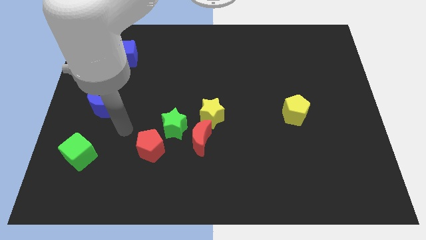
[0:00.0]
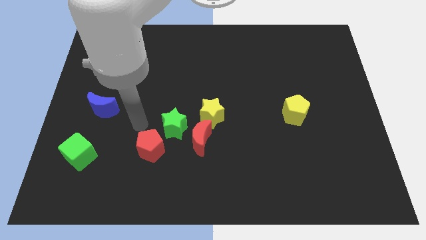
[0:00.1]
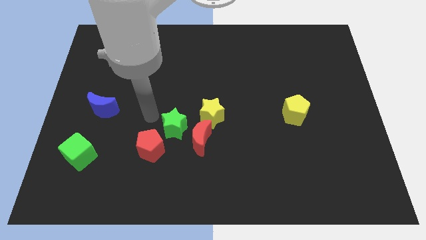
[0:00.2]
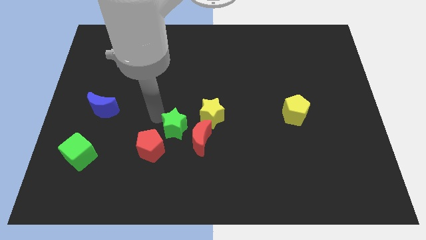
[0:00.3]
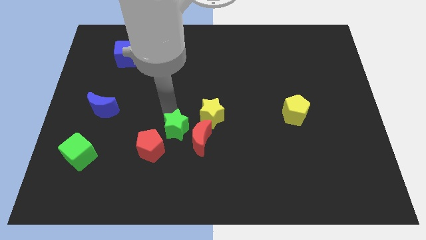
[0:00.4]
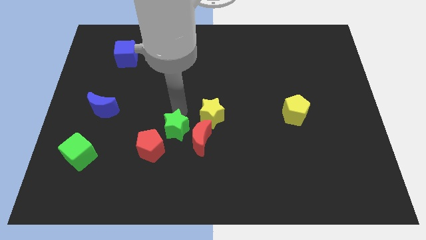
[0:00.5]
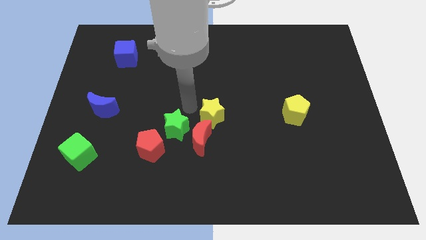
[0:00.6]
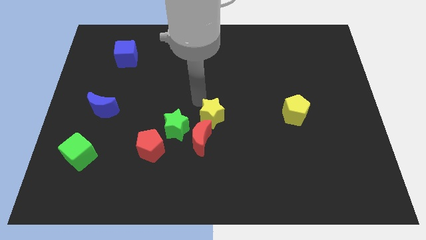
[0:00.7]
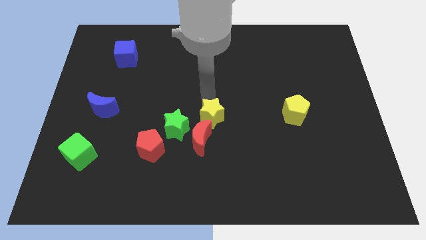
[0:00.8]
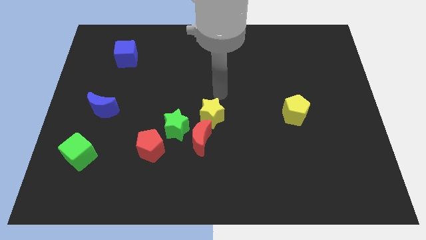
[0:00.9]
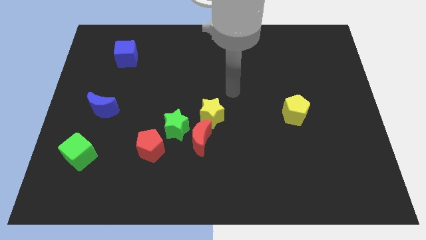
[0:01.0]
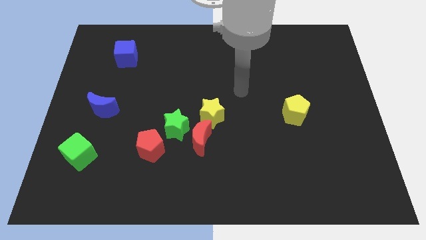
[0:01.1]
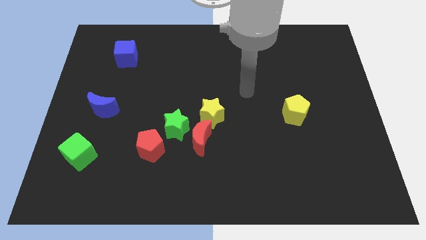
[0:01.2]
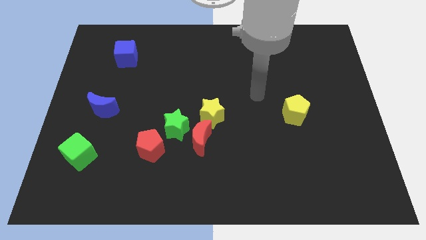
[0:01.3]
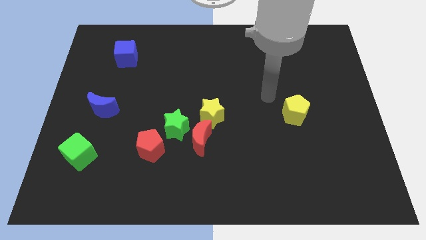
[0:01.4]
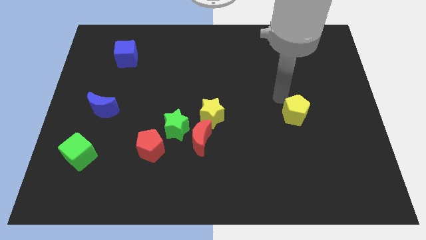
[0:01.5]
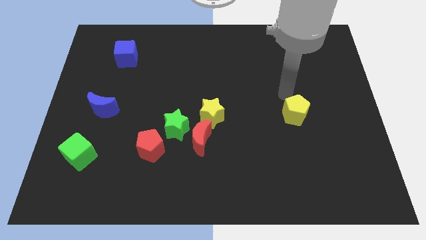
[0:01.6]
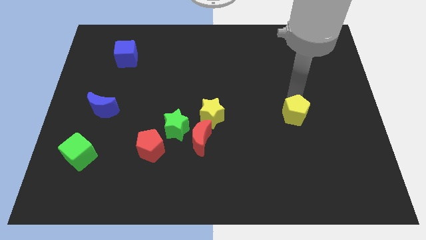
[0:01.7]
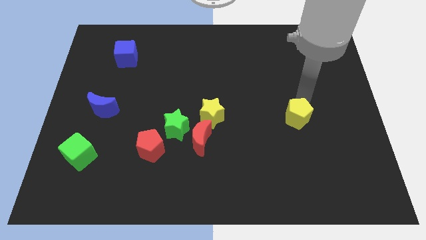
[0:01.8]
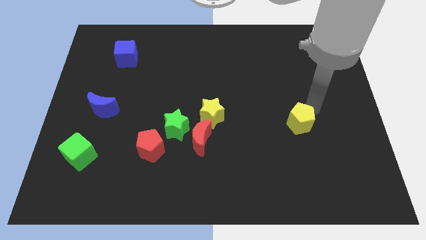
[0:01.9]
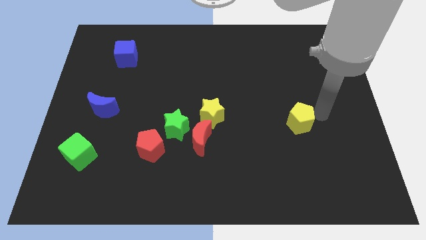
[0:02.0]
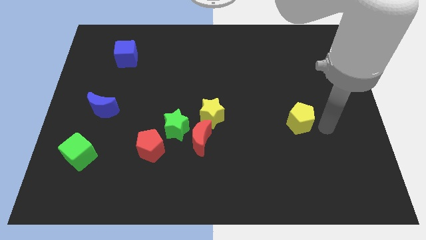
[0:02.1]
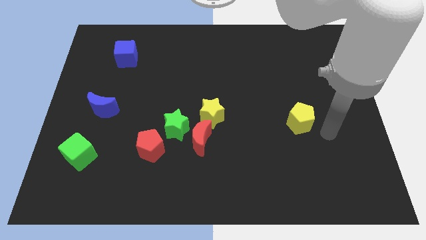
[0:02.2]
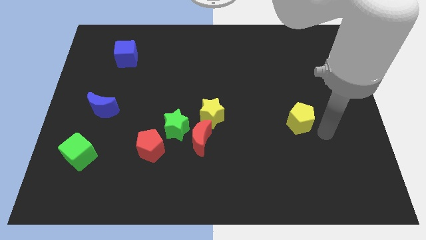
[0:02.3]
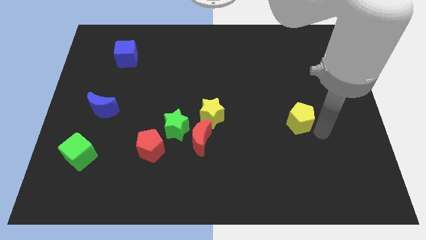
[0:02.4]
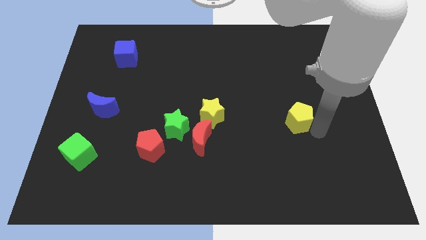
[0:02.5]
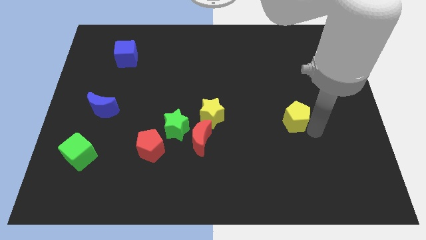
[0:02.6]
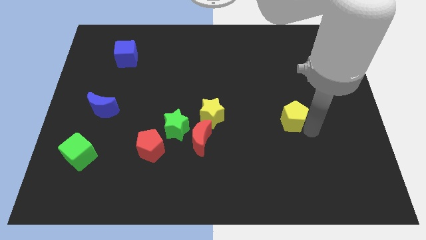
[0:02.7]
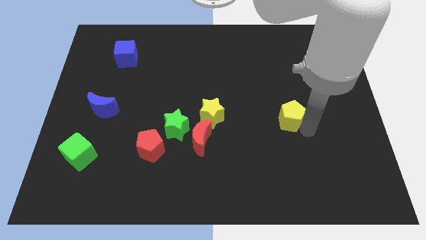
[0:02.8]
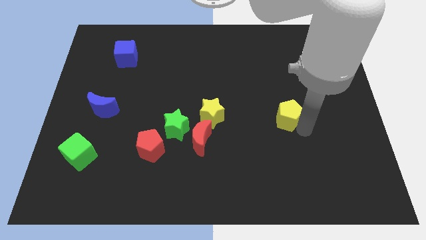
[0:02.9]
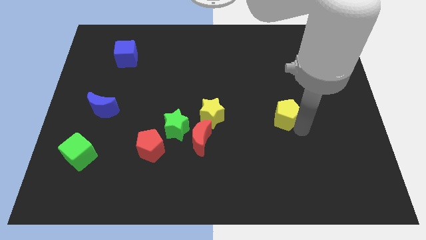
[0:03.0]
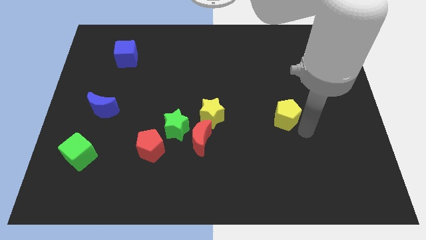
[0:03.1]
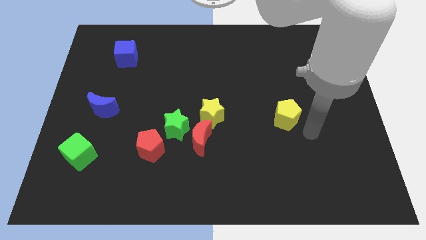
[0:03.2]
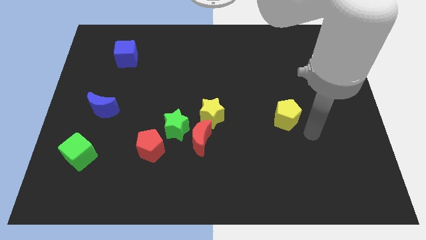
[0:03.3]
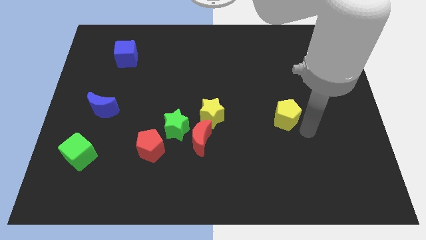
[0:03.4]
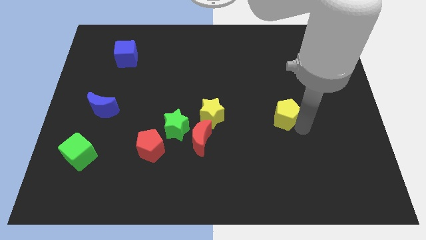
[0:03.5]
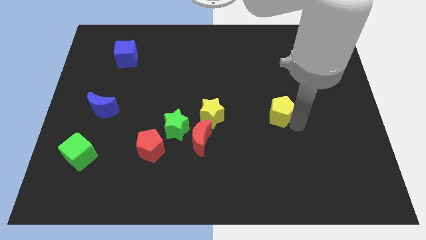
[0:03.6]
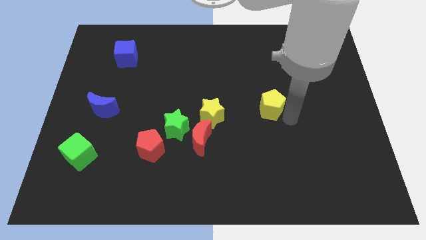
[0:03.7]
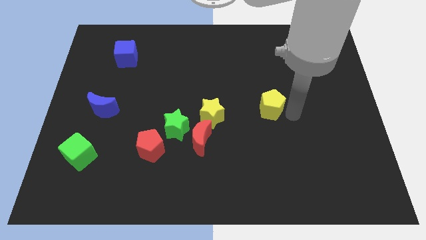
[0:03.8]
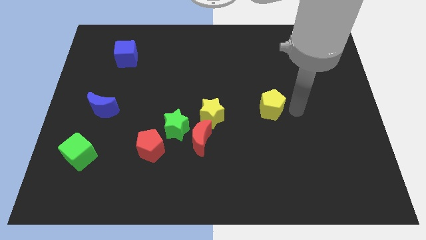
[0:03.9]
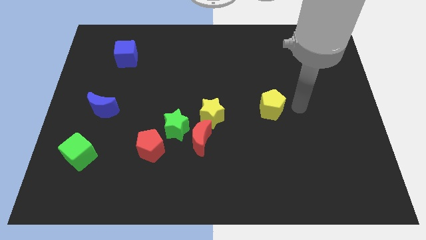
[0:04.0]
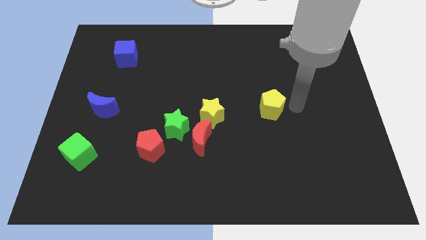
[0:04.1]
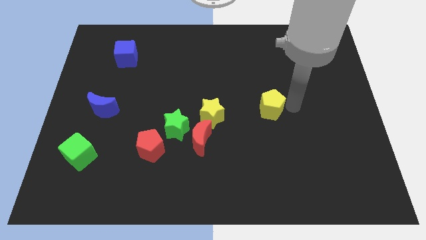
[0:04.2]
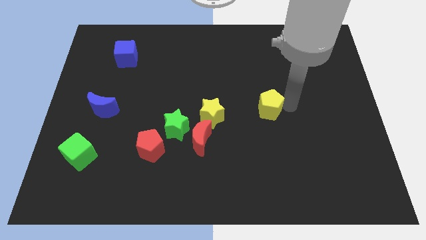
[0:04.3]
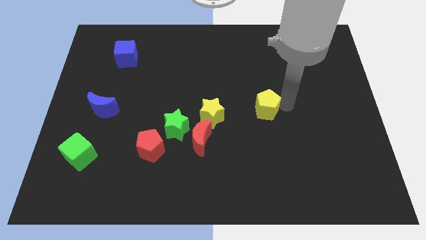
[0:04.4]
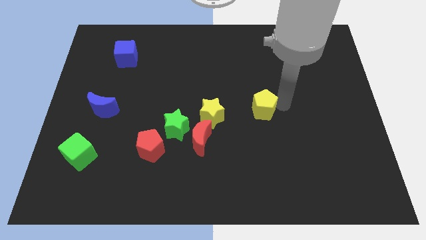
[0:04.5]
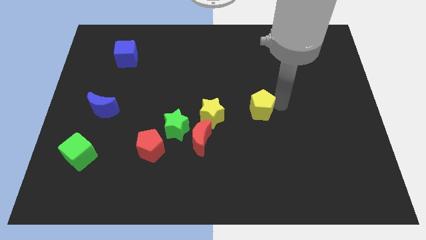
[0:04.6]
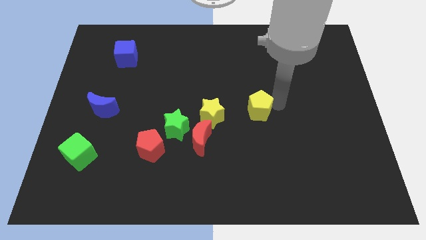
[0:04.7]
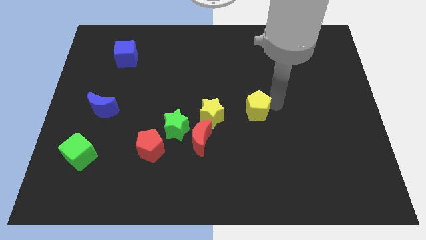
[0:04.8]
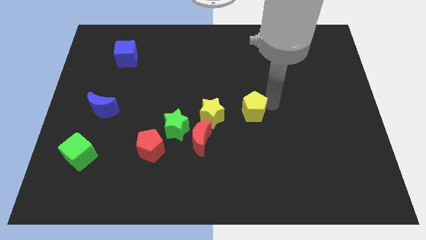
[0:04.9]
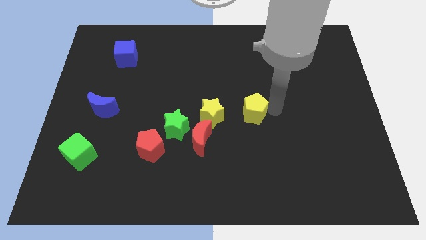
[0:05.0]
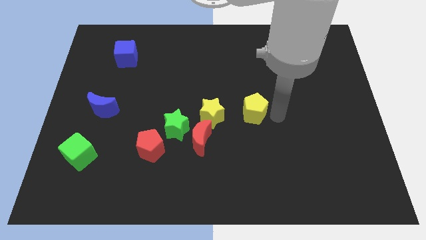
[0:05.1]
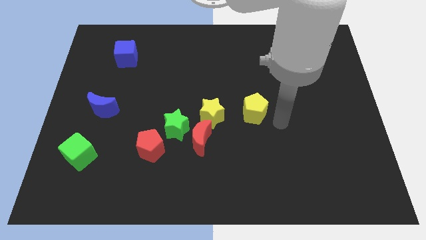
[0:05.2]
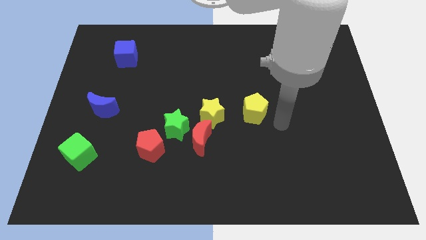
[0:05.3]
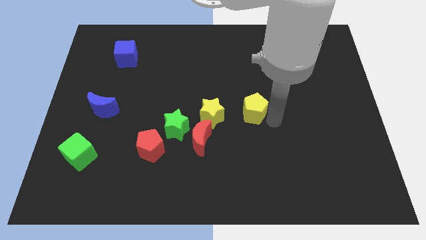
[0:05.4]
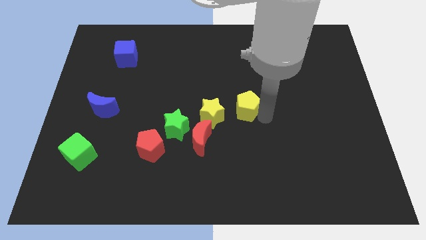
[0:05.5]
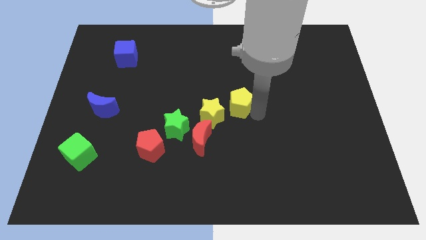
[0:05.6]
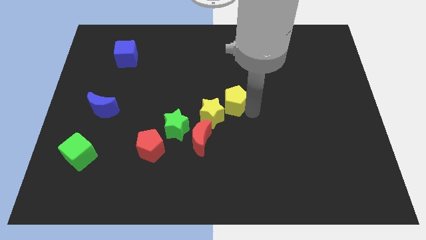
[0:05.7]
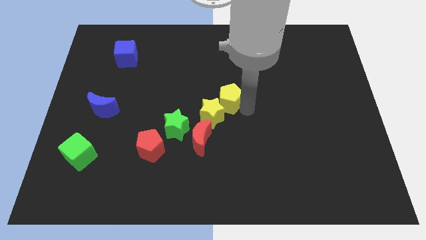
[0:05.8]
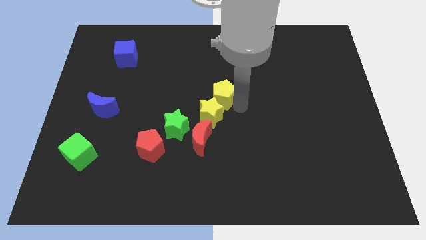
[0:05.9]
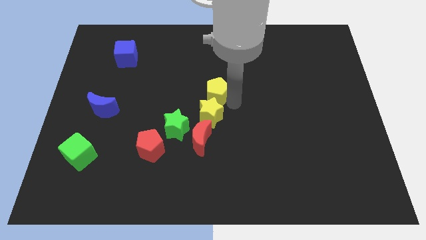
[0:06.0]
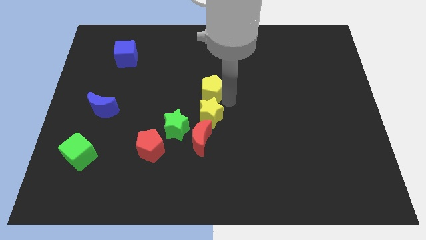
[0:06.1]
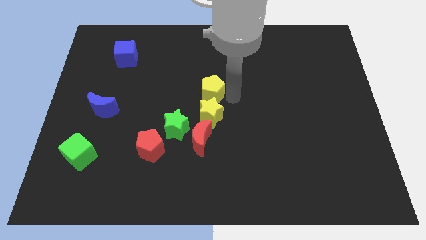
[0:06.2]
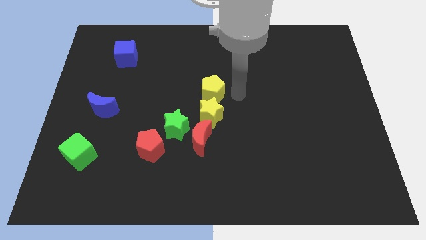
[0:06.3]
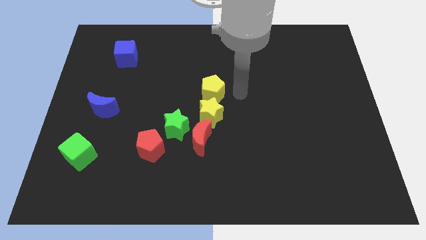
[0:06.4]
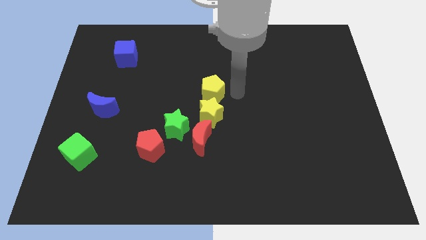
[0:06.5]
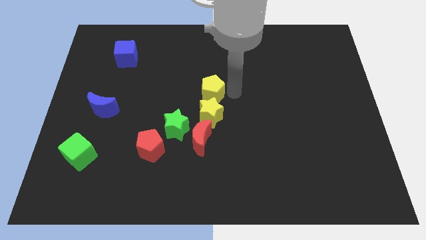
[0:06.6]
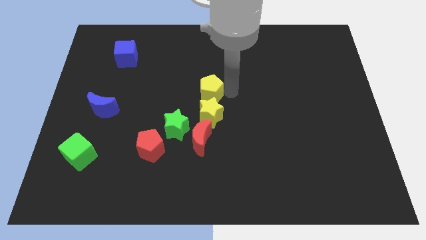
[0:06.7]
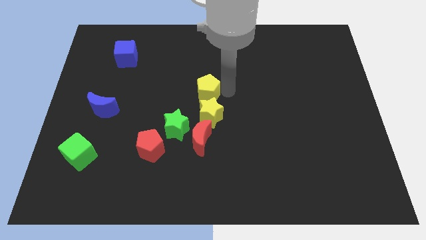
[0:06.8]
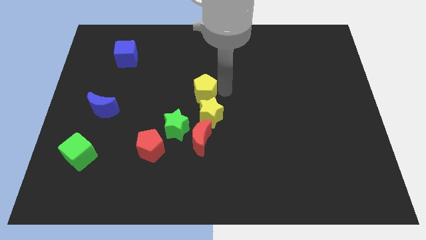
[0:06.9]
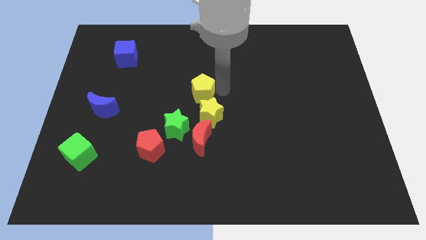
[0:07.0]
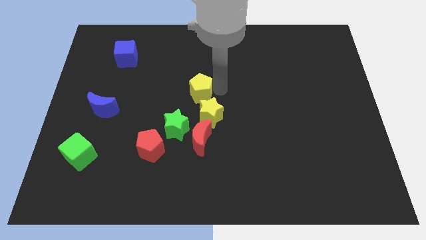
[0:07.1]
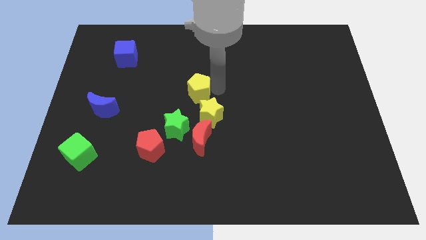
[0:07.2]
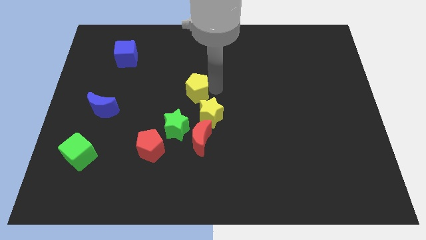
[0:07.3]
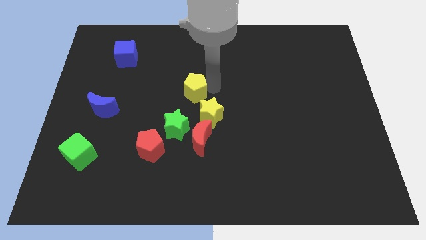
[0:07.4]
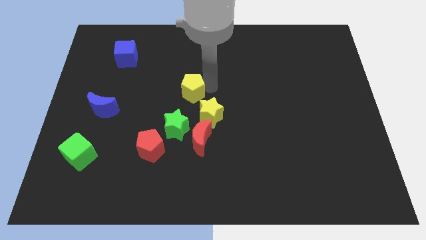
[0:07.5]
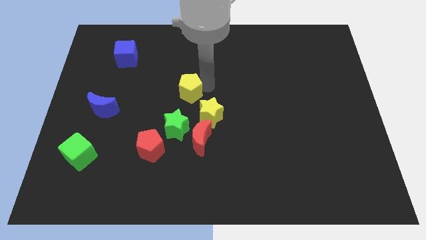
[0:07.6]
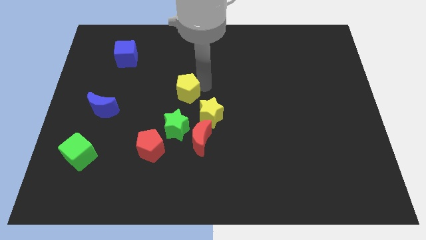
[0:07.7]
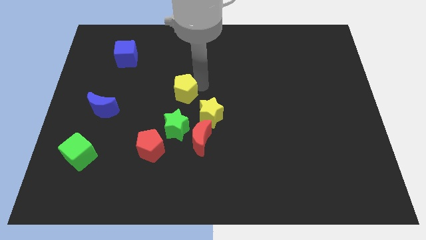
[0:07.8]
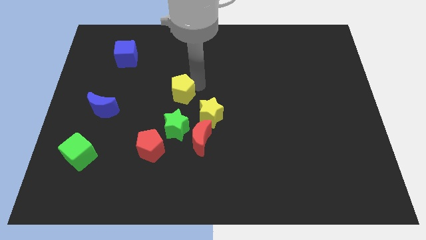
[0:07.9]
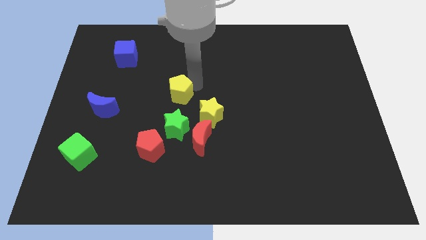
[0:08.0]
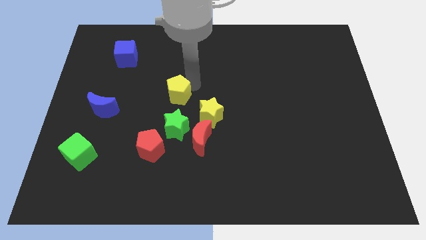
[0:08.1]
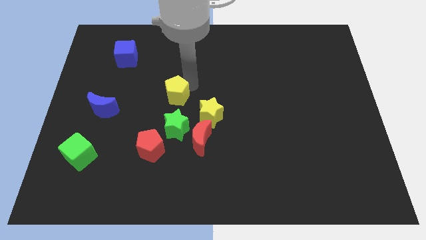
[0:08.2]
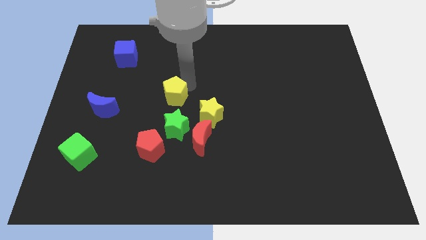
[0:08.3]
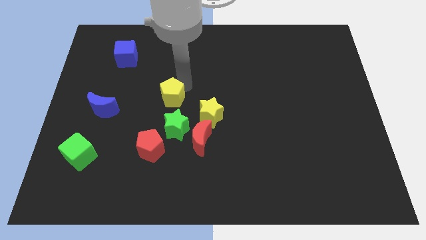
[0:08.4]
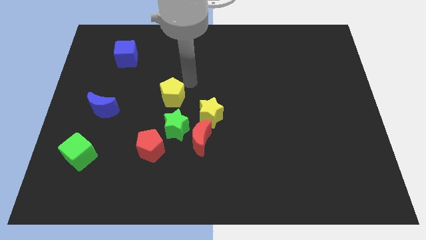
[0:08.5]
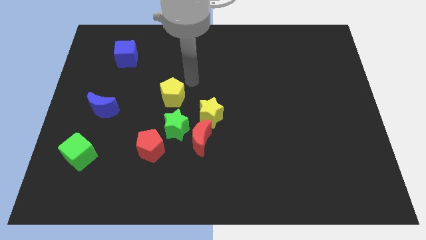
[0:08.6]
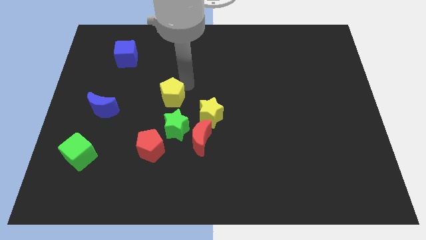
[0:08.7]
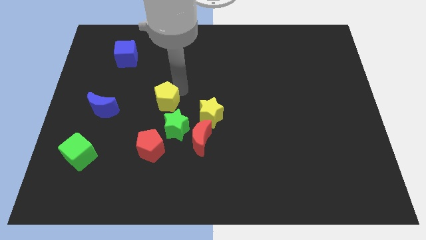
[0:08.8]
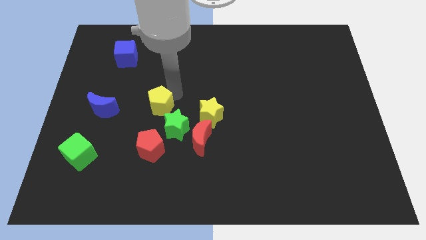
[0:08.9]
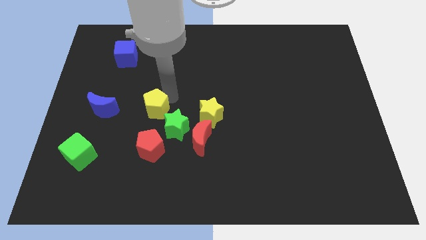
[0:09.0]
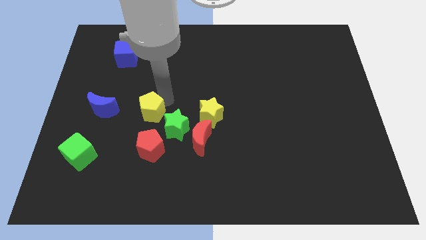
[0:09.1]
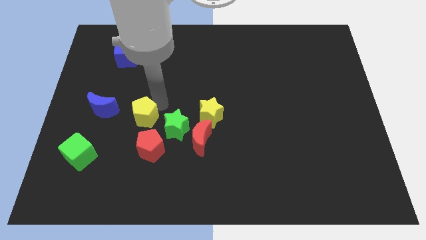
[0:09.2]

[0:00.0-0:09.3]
push the yellow pentagon to the left side of the green star
